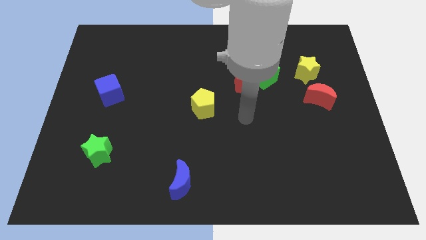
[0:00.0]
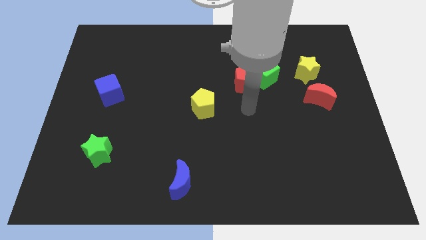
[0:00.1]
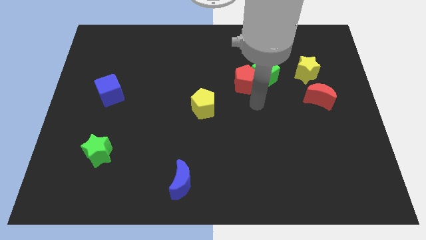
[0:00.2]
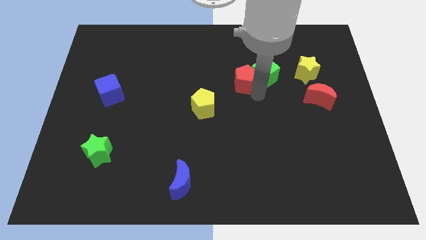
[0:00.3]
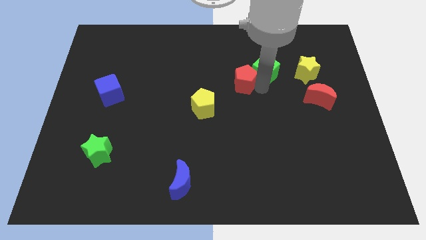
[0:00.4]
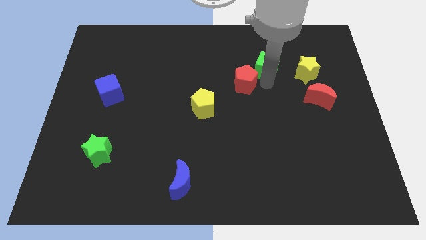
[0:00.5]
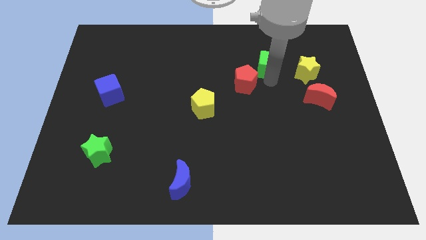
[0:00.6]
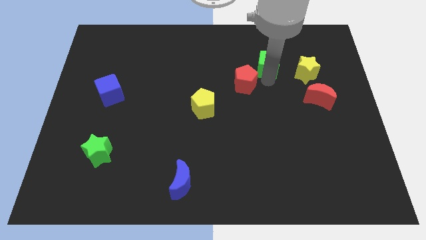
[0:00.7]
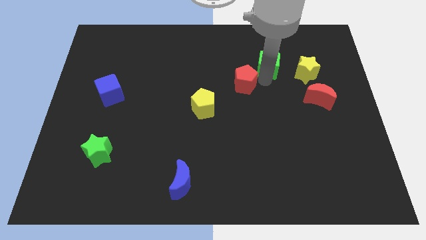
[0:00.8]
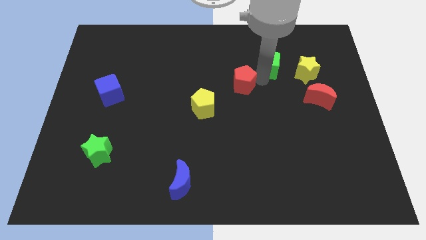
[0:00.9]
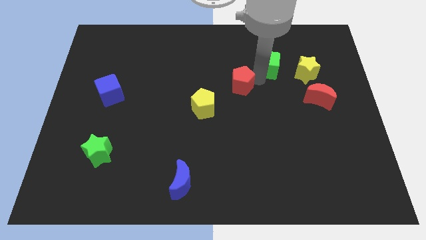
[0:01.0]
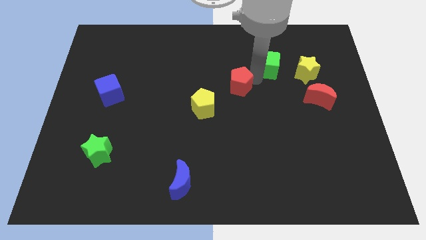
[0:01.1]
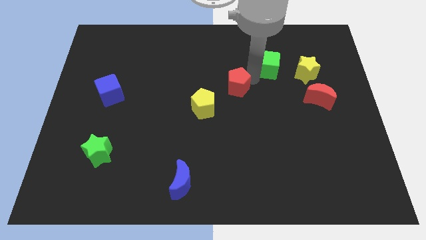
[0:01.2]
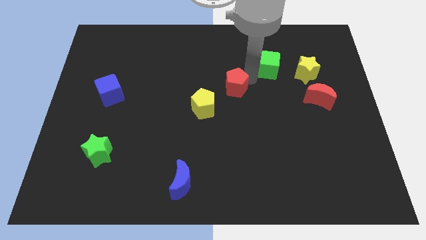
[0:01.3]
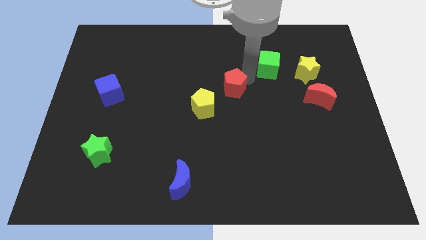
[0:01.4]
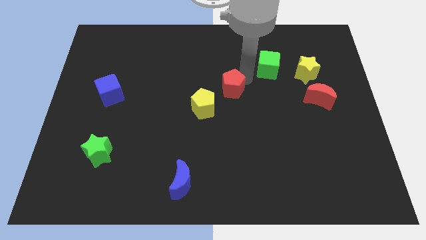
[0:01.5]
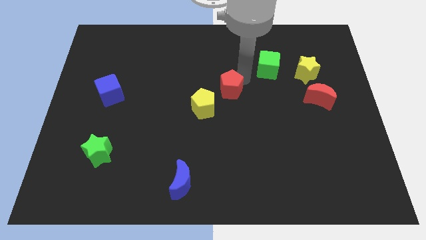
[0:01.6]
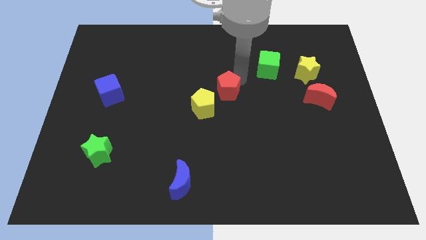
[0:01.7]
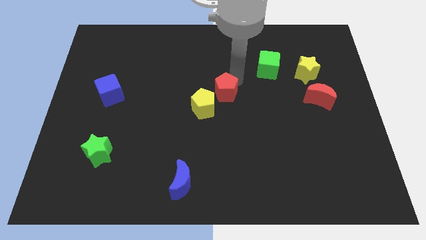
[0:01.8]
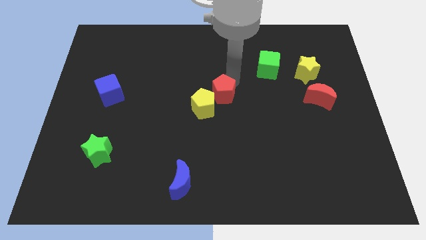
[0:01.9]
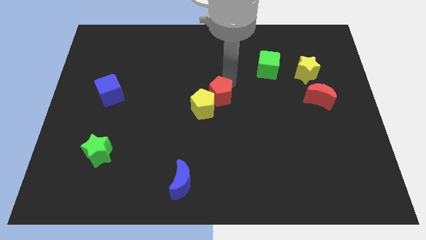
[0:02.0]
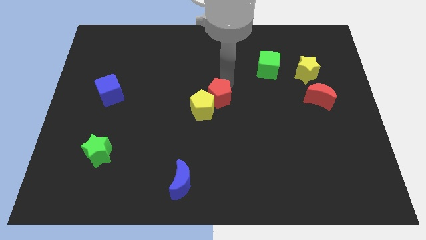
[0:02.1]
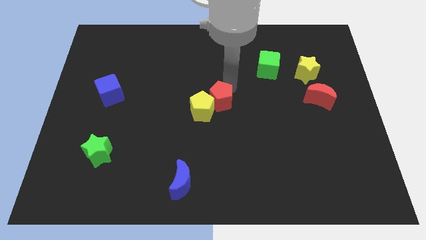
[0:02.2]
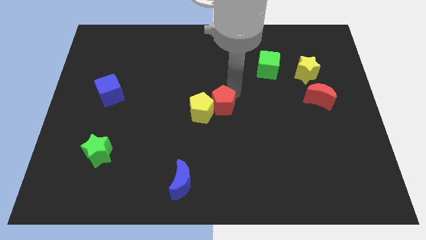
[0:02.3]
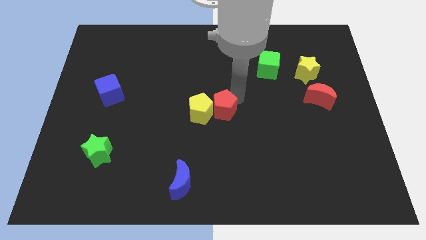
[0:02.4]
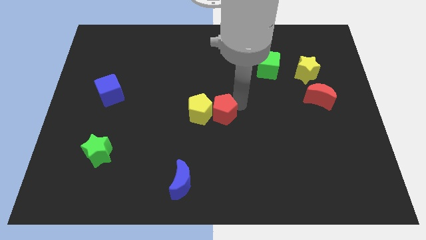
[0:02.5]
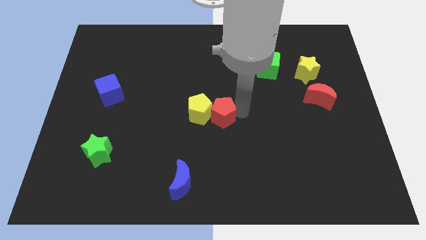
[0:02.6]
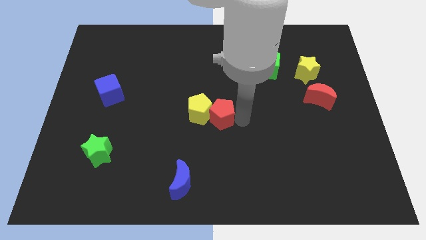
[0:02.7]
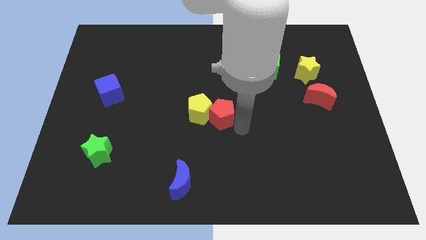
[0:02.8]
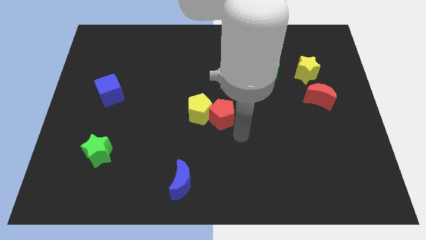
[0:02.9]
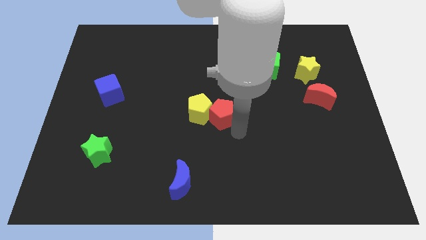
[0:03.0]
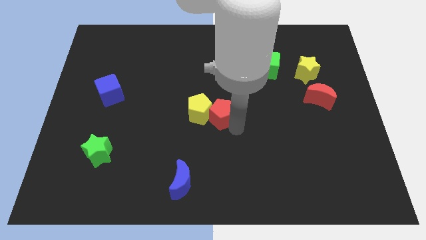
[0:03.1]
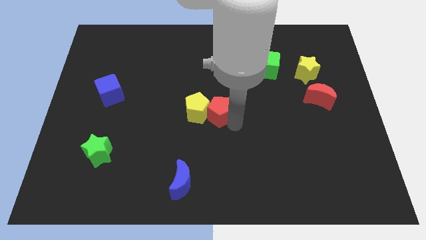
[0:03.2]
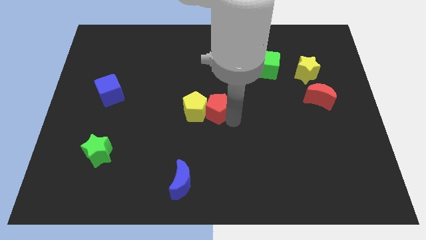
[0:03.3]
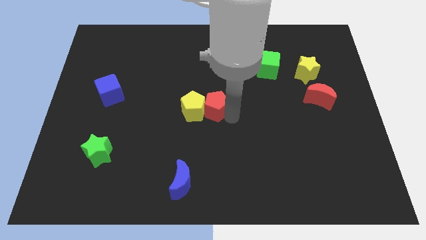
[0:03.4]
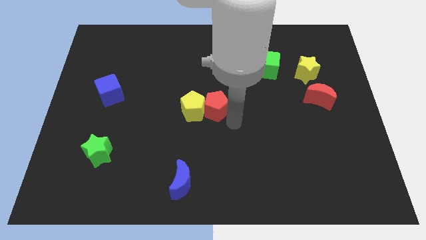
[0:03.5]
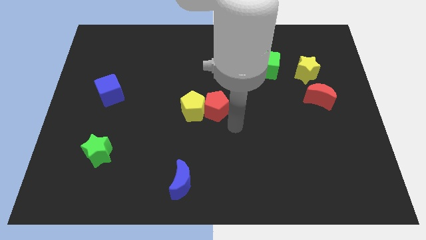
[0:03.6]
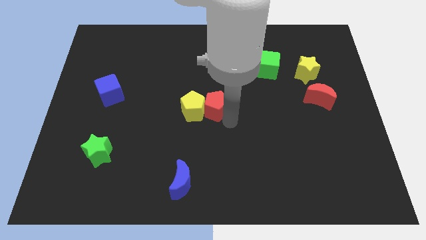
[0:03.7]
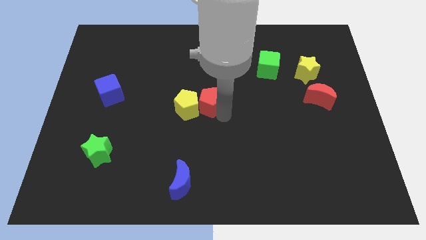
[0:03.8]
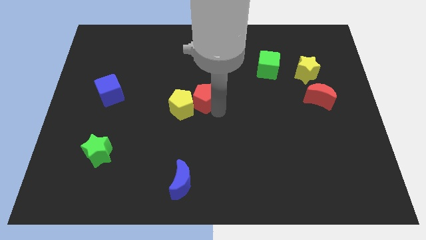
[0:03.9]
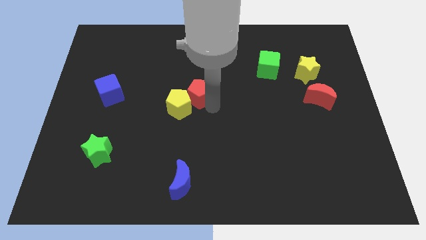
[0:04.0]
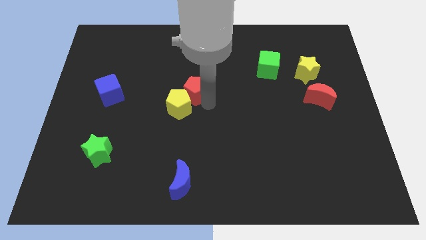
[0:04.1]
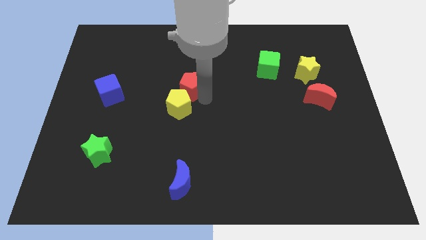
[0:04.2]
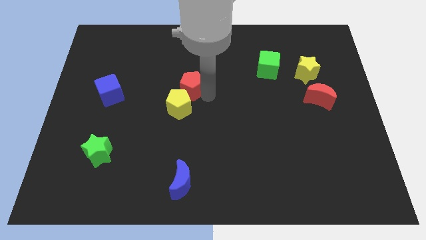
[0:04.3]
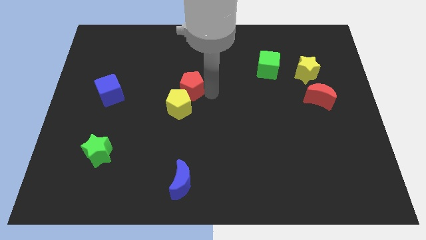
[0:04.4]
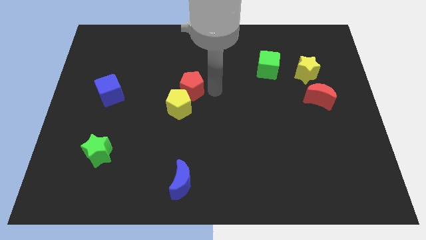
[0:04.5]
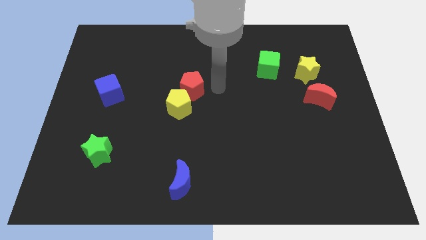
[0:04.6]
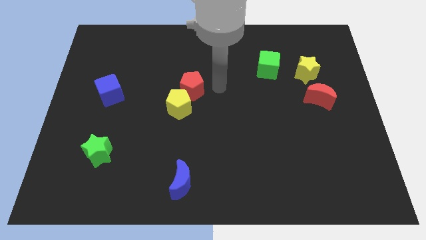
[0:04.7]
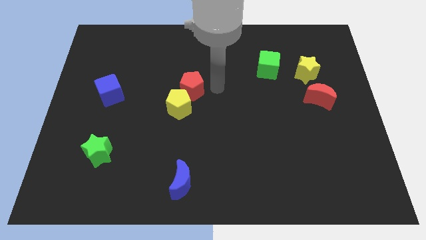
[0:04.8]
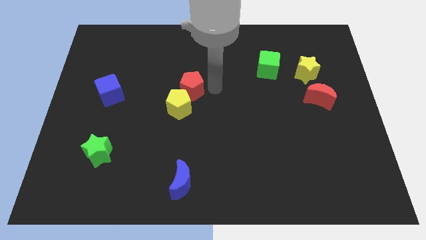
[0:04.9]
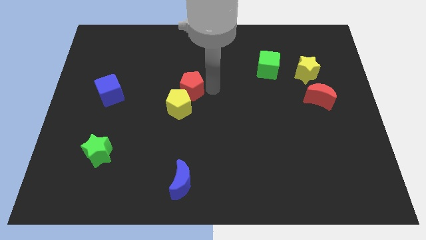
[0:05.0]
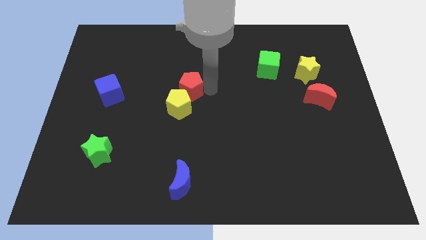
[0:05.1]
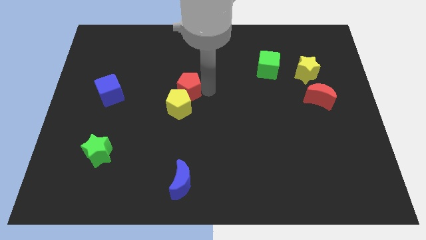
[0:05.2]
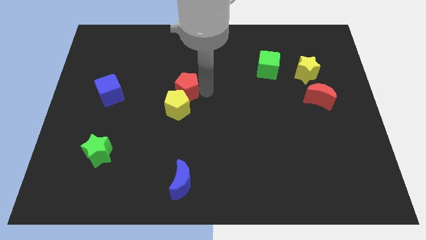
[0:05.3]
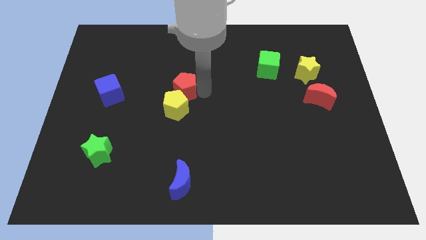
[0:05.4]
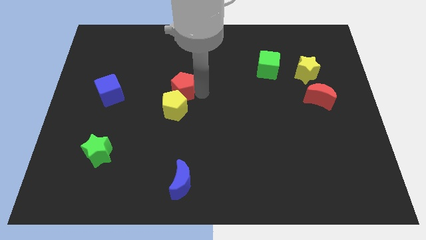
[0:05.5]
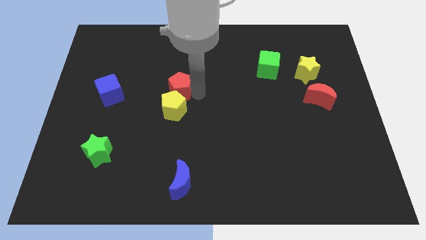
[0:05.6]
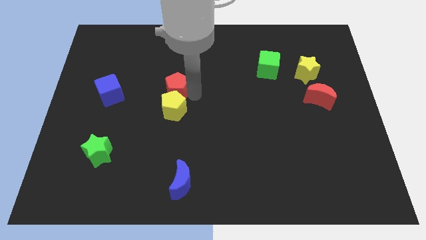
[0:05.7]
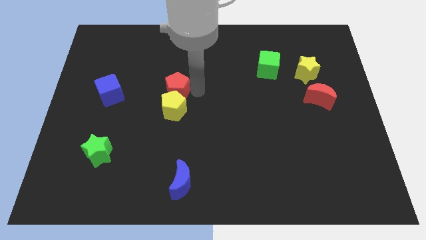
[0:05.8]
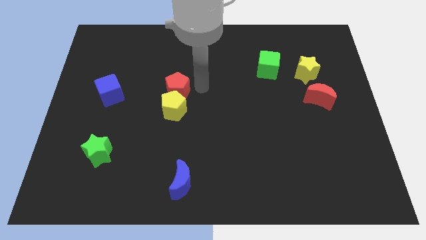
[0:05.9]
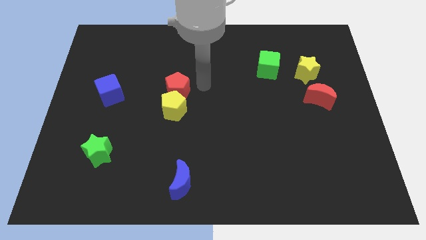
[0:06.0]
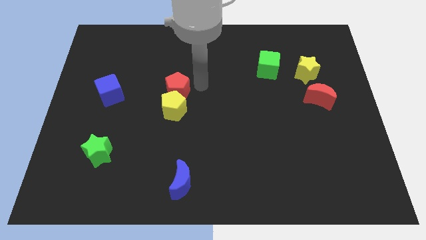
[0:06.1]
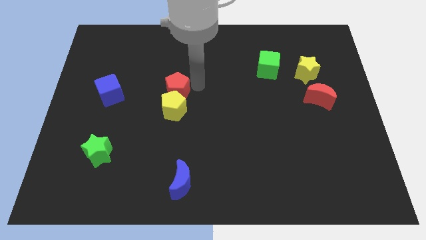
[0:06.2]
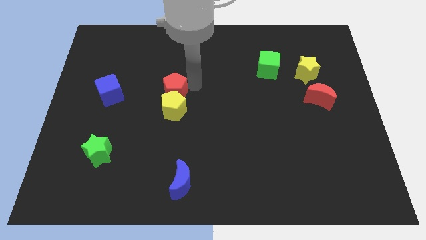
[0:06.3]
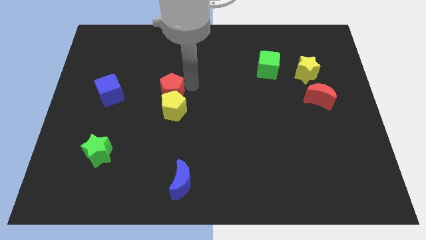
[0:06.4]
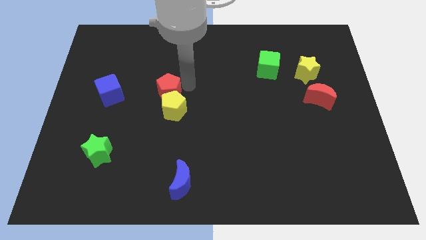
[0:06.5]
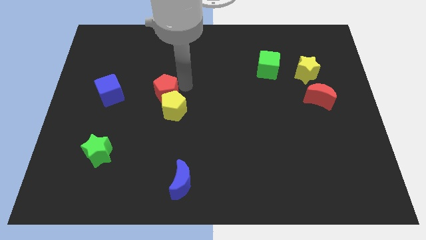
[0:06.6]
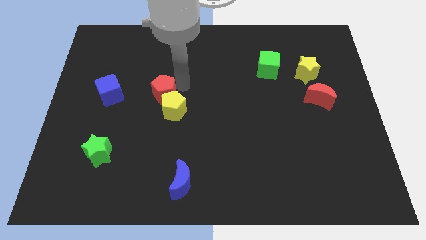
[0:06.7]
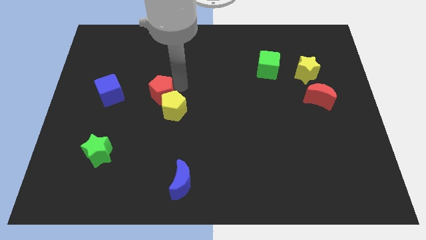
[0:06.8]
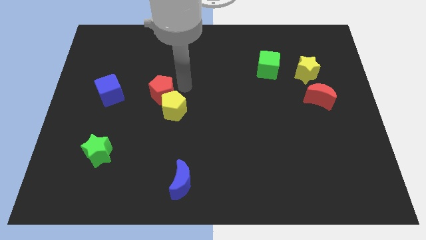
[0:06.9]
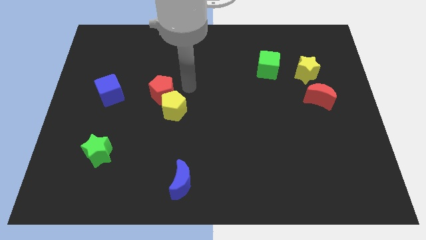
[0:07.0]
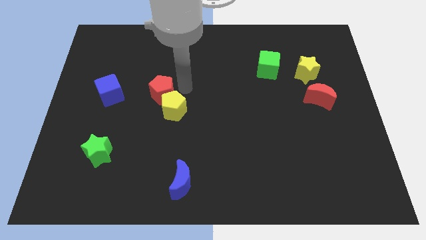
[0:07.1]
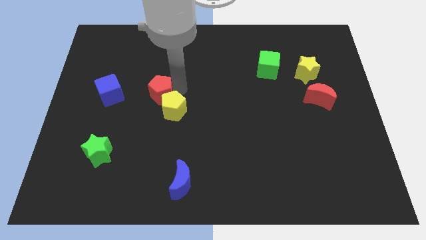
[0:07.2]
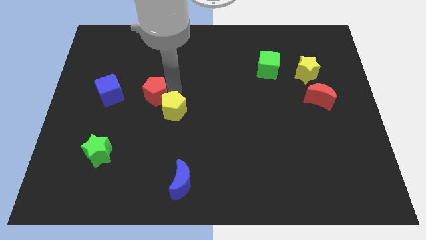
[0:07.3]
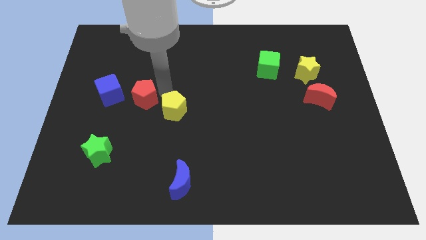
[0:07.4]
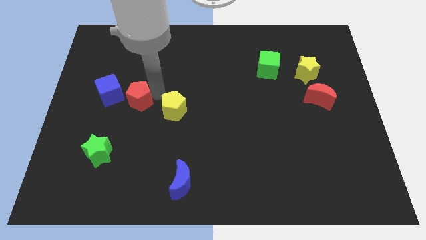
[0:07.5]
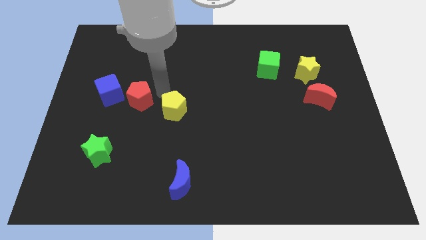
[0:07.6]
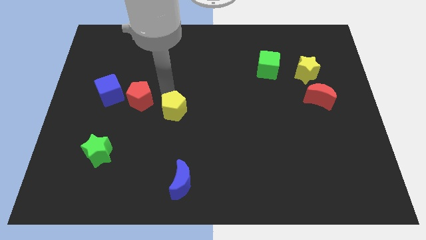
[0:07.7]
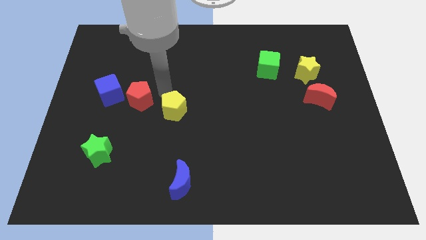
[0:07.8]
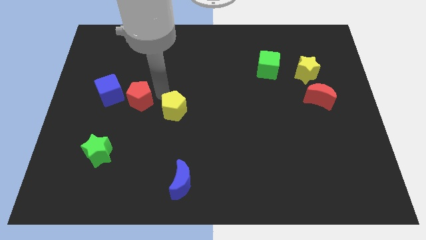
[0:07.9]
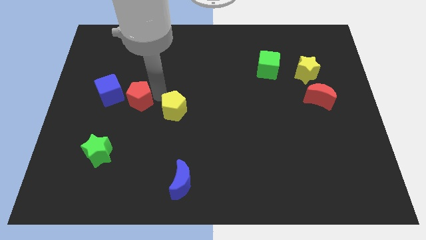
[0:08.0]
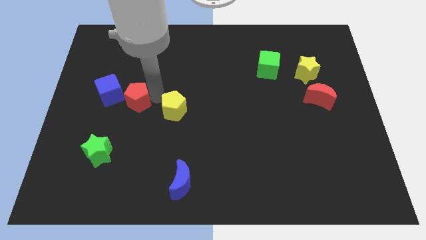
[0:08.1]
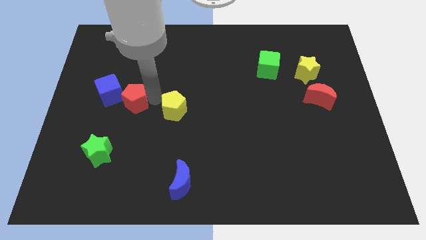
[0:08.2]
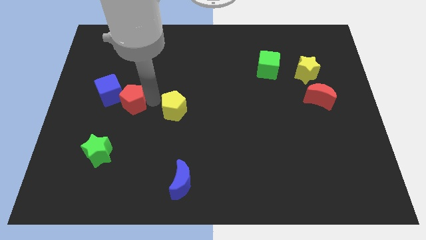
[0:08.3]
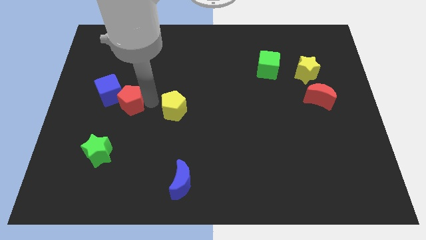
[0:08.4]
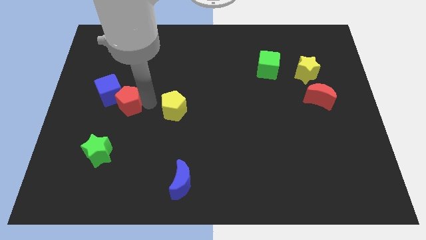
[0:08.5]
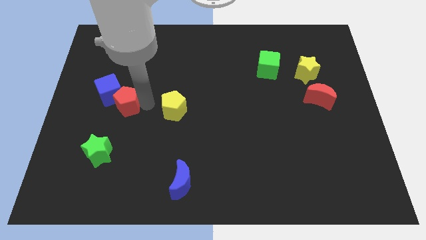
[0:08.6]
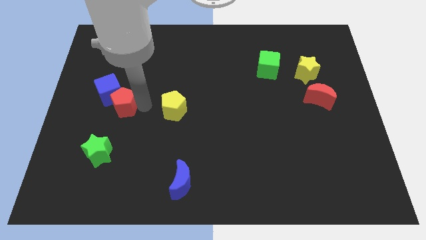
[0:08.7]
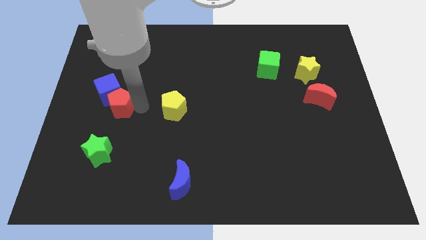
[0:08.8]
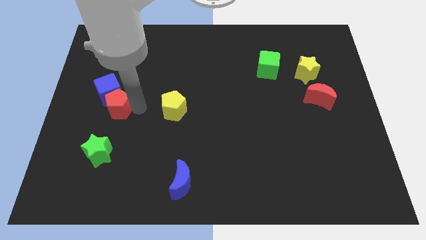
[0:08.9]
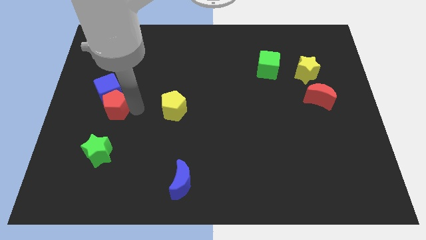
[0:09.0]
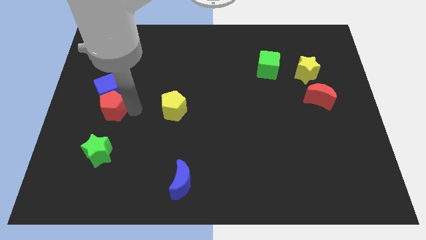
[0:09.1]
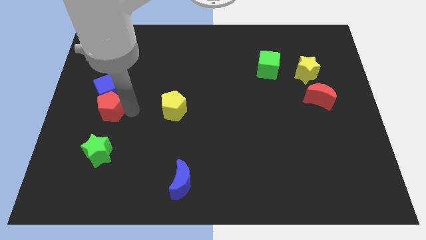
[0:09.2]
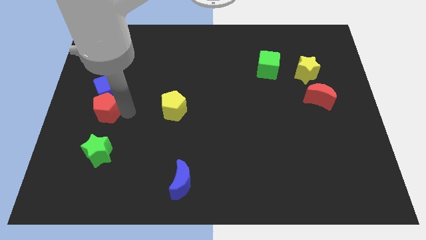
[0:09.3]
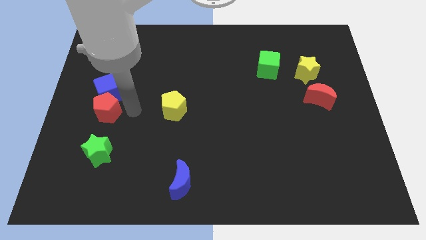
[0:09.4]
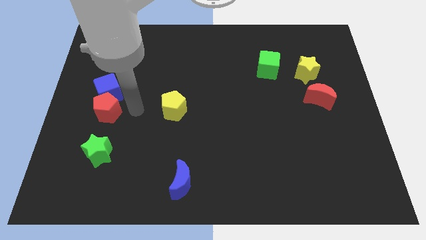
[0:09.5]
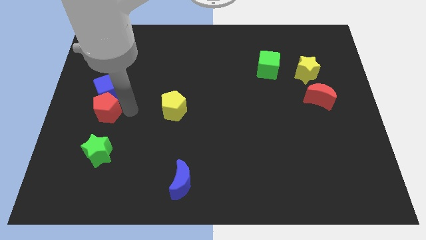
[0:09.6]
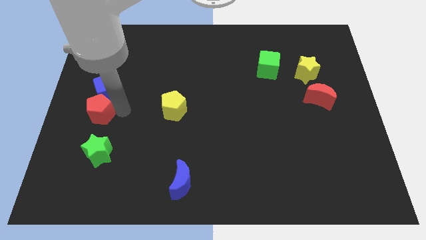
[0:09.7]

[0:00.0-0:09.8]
slide the red pentagon to the center left
